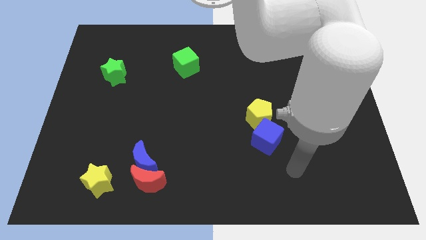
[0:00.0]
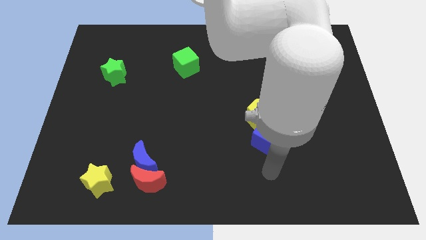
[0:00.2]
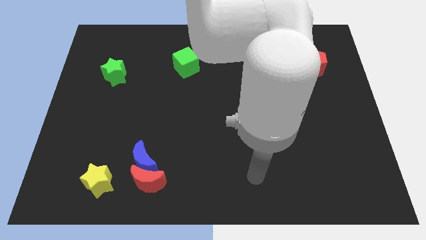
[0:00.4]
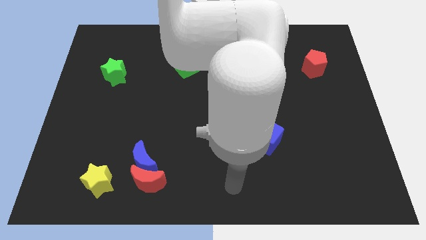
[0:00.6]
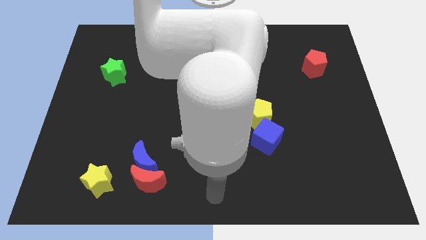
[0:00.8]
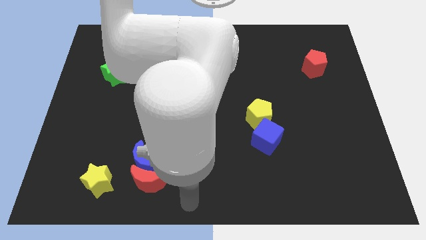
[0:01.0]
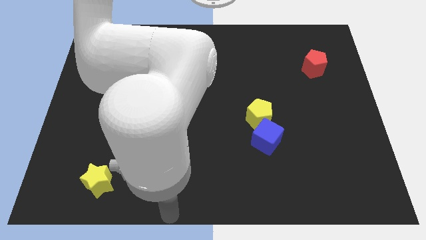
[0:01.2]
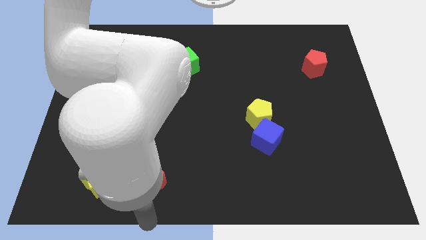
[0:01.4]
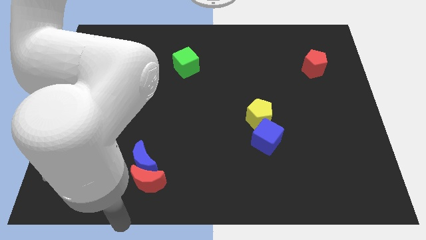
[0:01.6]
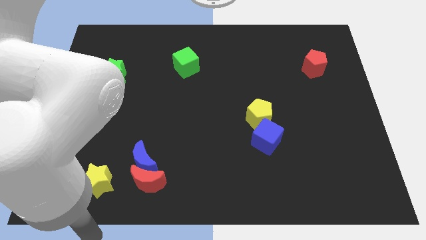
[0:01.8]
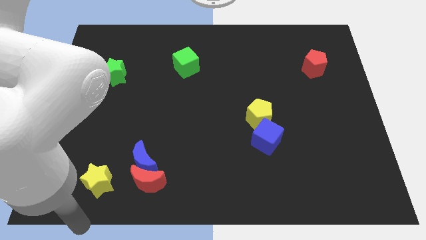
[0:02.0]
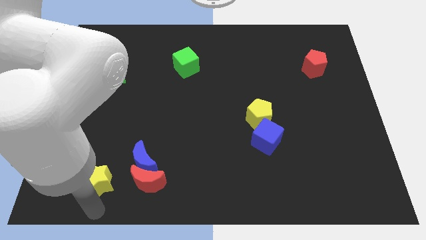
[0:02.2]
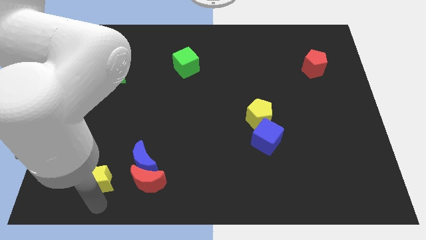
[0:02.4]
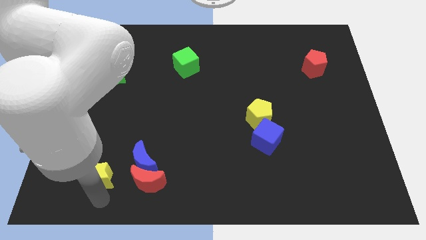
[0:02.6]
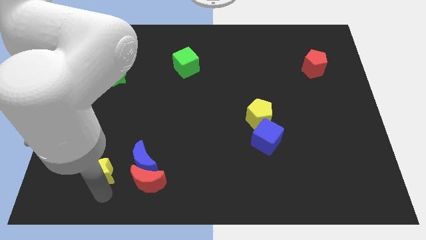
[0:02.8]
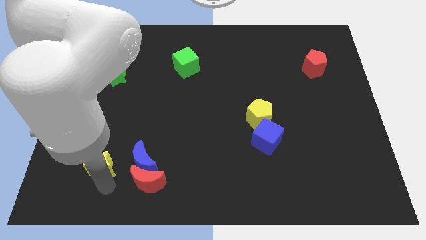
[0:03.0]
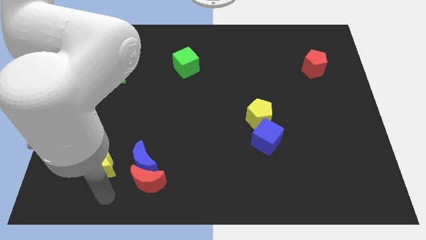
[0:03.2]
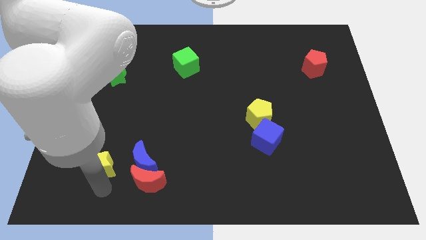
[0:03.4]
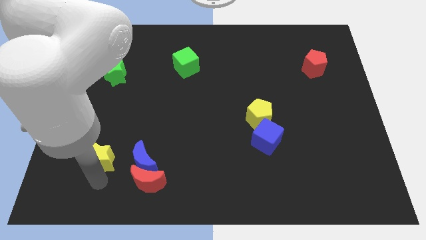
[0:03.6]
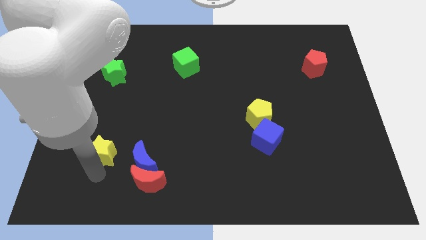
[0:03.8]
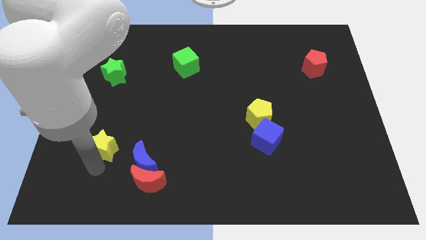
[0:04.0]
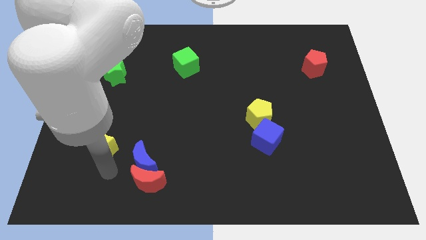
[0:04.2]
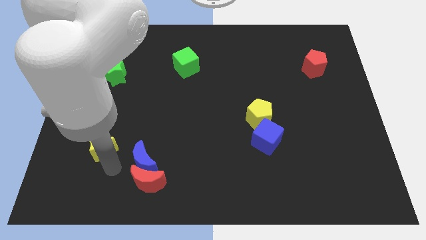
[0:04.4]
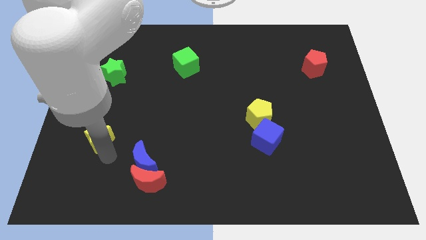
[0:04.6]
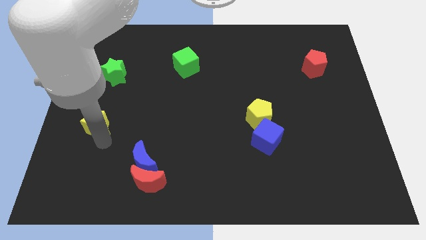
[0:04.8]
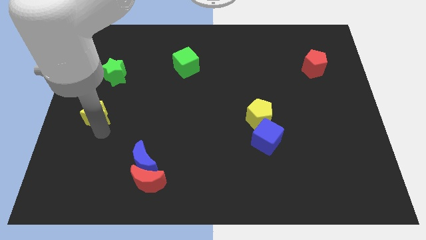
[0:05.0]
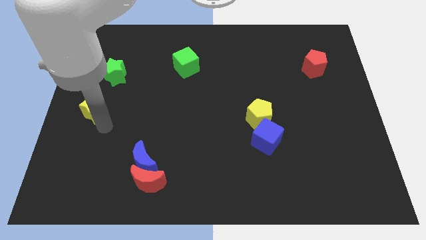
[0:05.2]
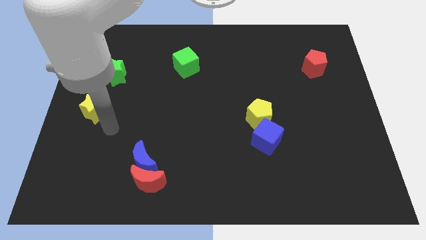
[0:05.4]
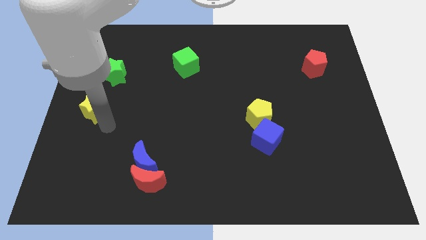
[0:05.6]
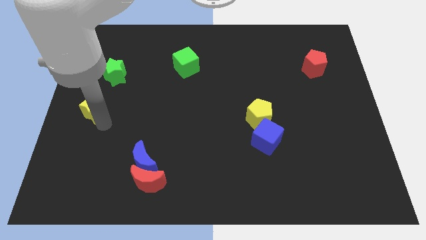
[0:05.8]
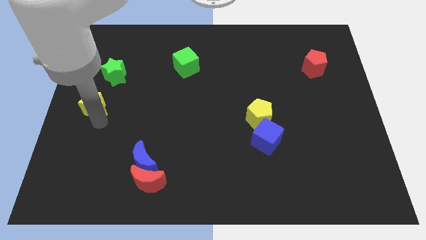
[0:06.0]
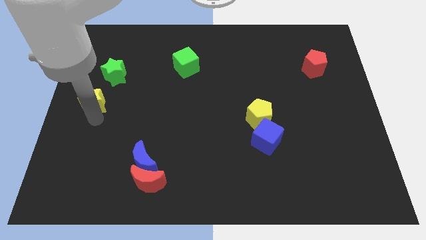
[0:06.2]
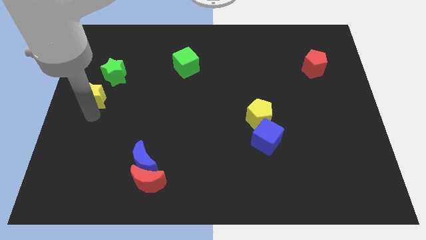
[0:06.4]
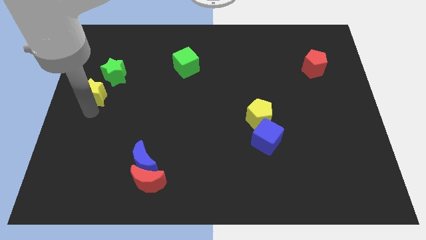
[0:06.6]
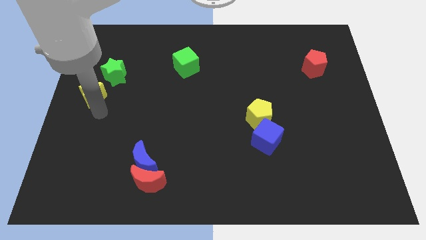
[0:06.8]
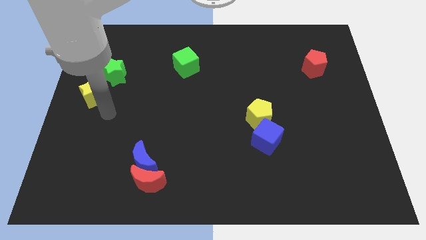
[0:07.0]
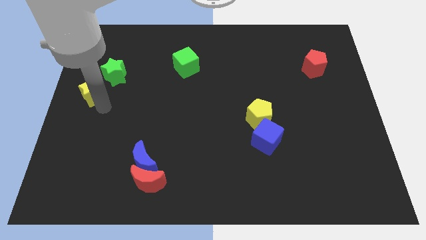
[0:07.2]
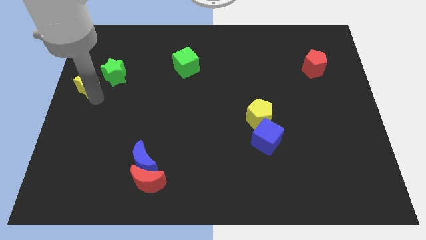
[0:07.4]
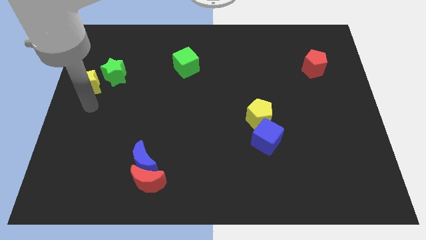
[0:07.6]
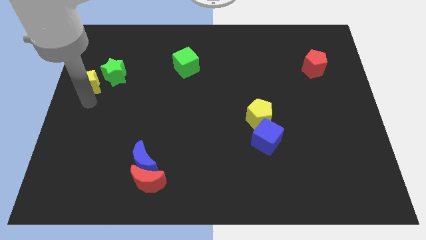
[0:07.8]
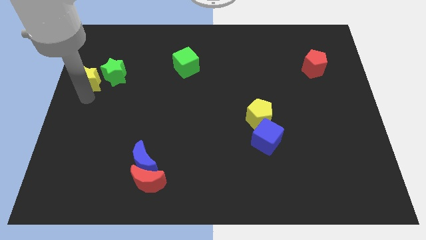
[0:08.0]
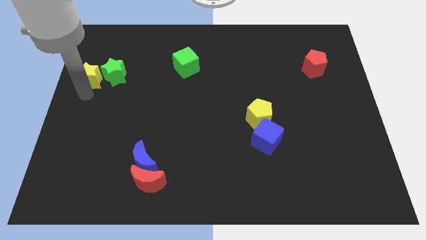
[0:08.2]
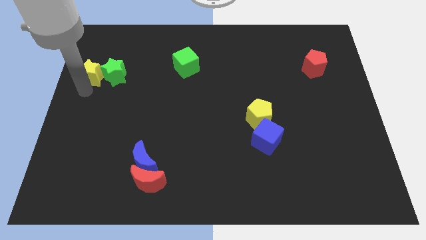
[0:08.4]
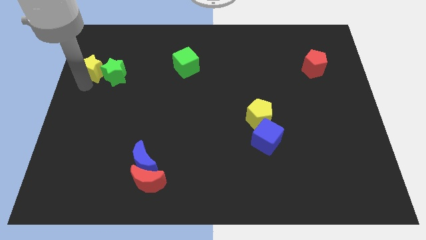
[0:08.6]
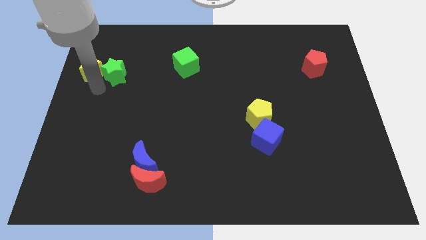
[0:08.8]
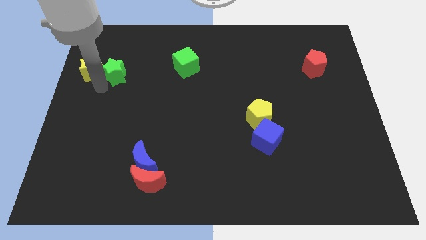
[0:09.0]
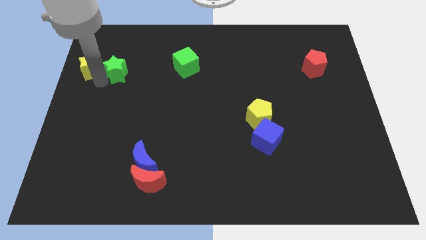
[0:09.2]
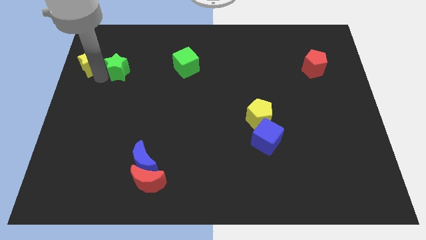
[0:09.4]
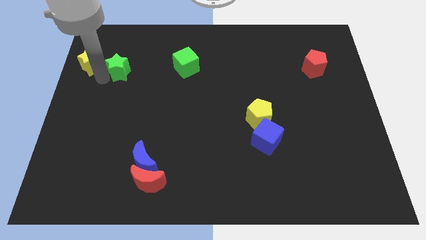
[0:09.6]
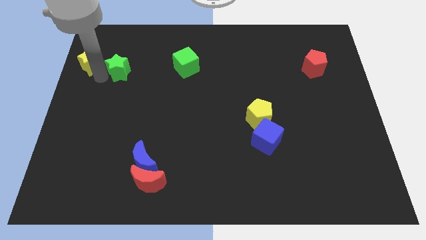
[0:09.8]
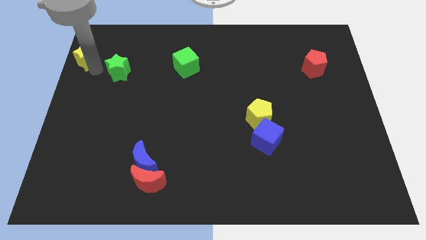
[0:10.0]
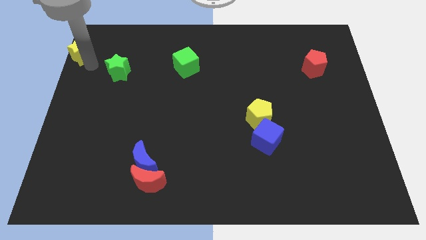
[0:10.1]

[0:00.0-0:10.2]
push the yellow star to the top left corner

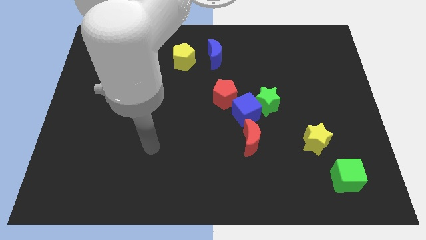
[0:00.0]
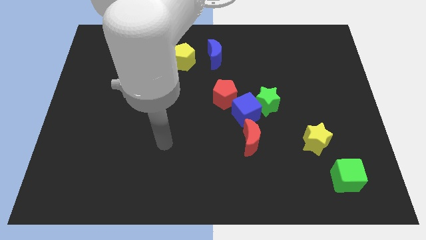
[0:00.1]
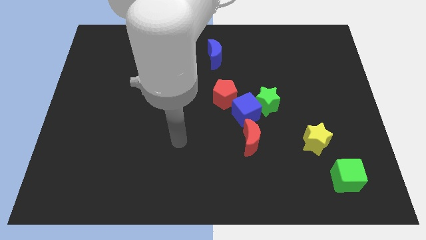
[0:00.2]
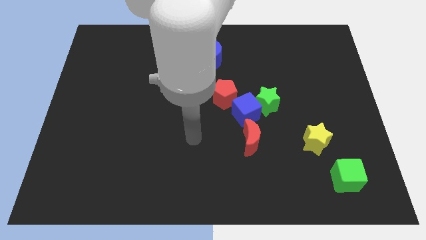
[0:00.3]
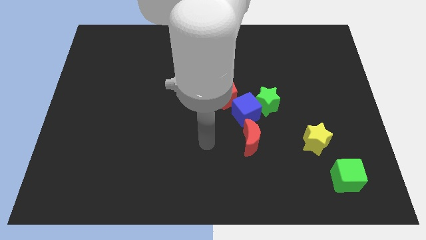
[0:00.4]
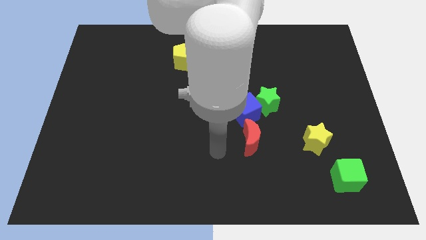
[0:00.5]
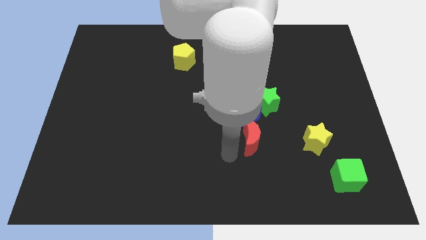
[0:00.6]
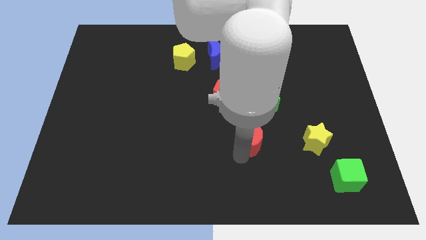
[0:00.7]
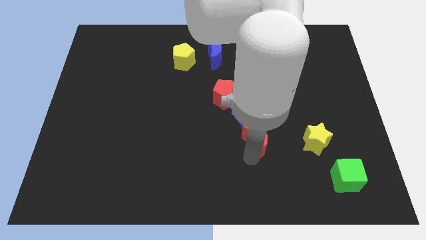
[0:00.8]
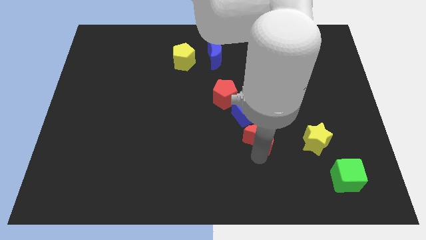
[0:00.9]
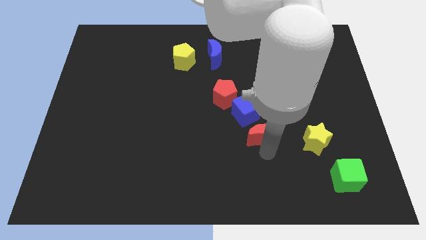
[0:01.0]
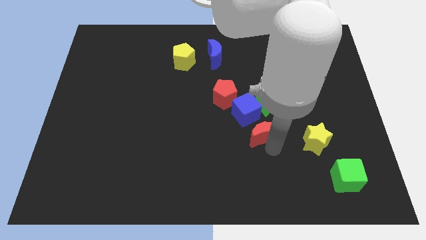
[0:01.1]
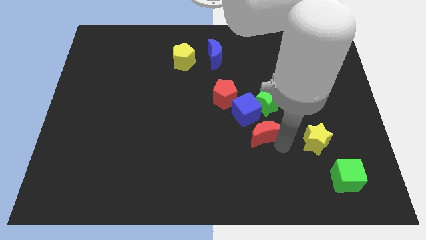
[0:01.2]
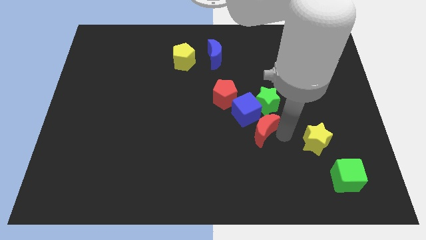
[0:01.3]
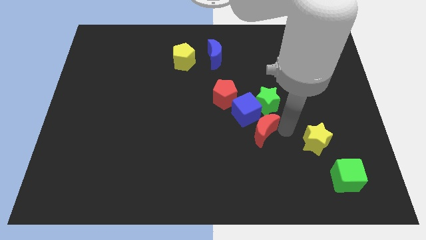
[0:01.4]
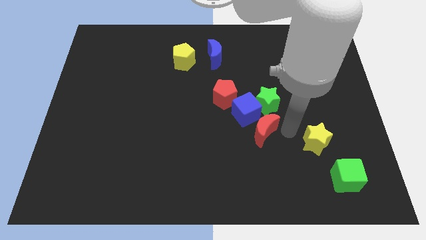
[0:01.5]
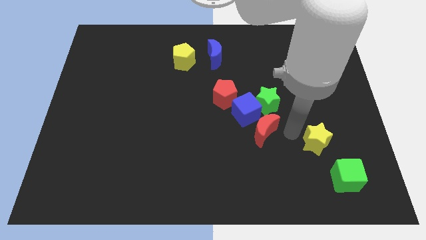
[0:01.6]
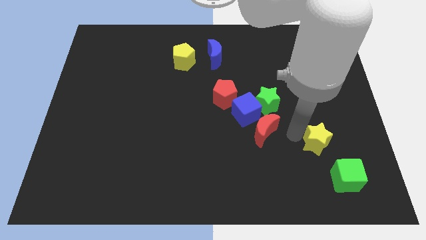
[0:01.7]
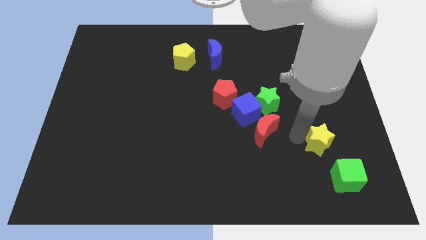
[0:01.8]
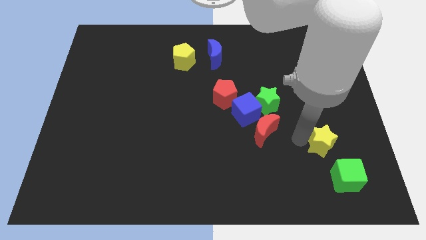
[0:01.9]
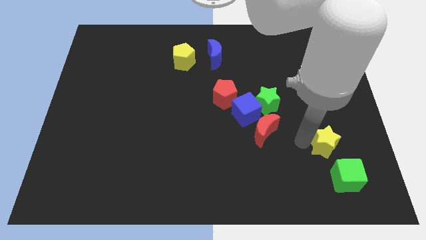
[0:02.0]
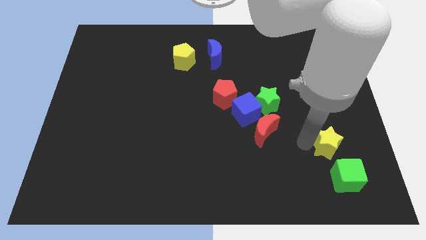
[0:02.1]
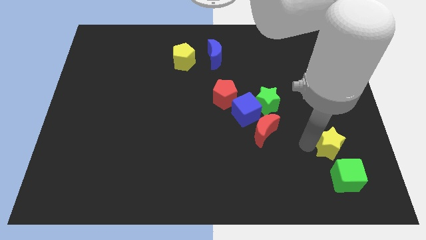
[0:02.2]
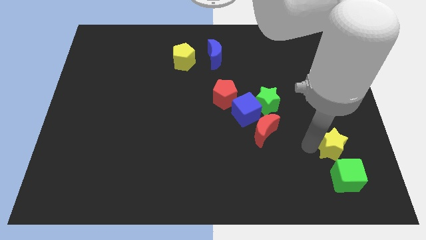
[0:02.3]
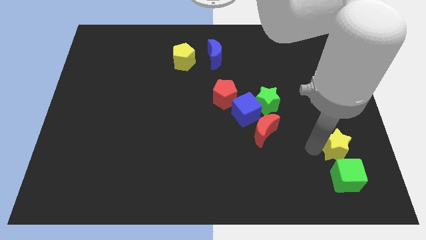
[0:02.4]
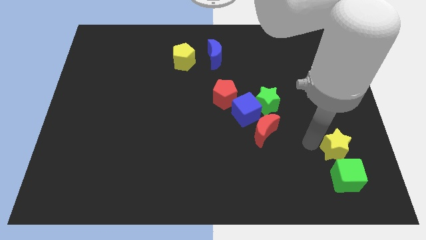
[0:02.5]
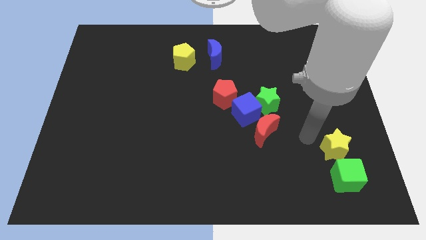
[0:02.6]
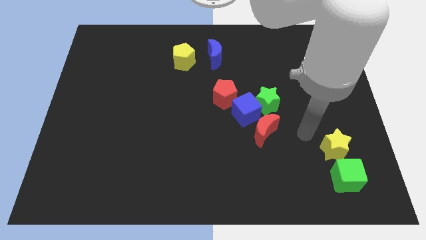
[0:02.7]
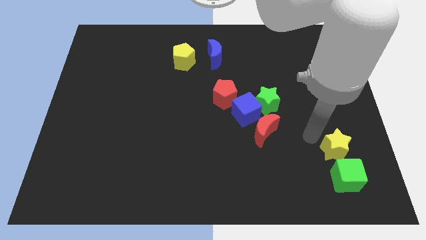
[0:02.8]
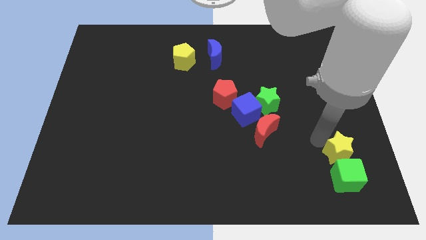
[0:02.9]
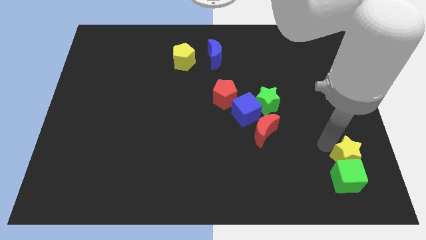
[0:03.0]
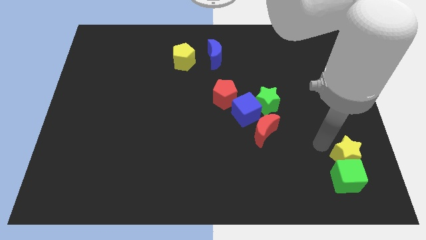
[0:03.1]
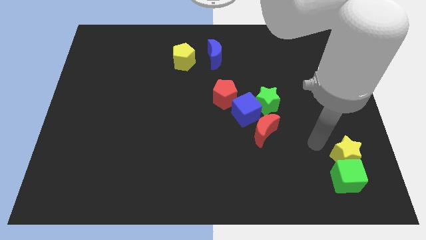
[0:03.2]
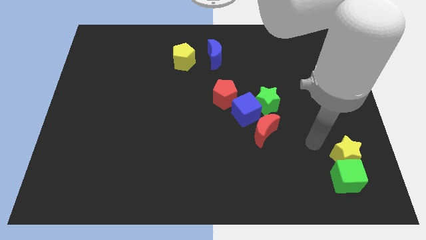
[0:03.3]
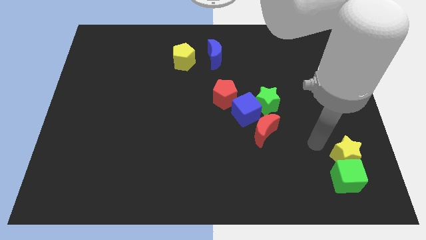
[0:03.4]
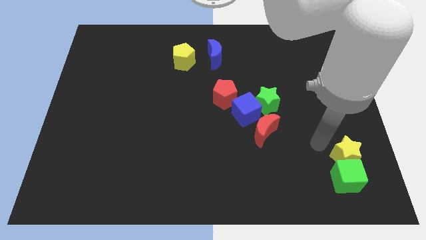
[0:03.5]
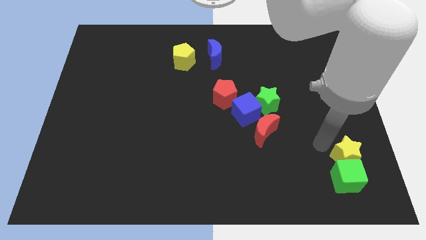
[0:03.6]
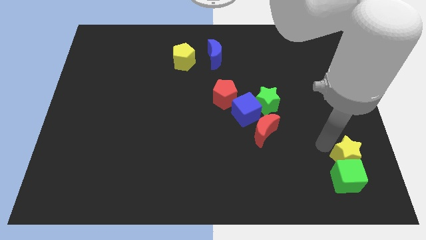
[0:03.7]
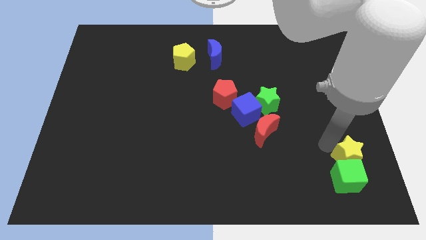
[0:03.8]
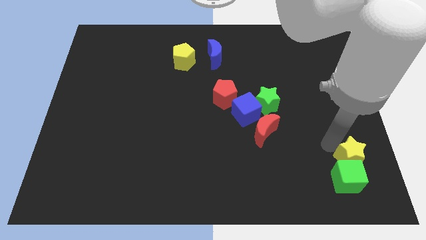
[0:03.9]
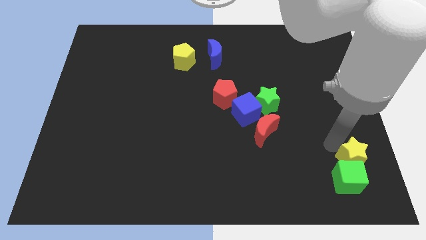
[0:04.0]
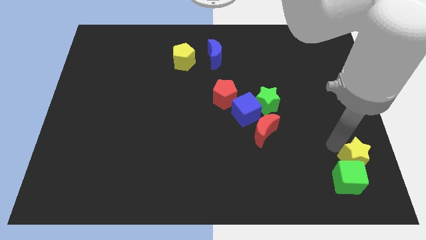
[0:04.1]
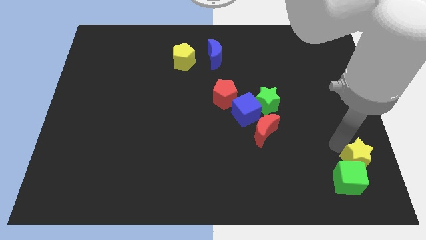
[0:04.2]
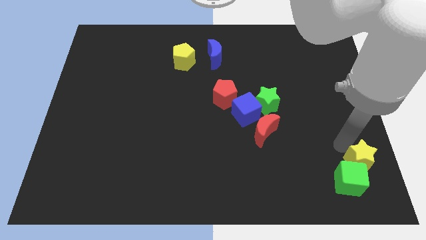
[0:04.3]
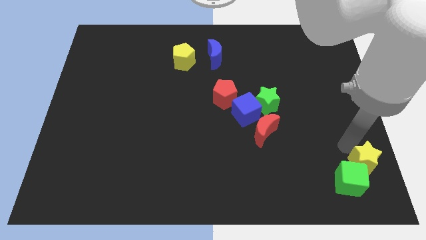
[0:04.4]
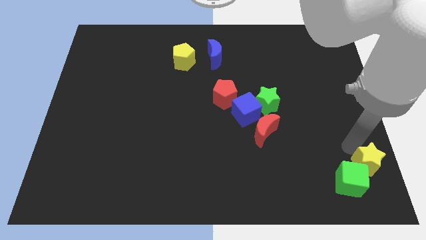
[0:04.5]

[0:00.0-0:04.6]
push the yellow star to the bottom right
